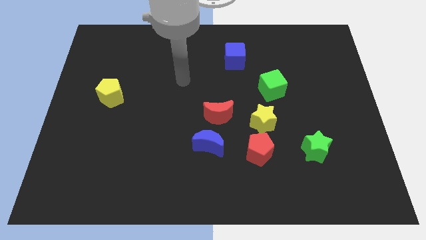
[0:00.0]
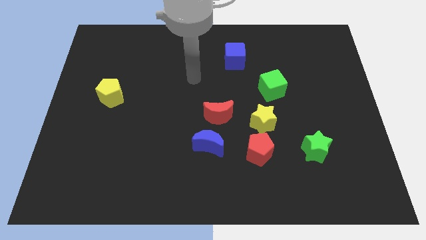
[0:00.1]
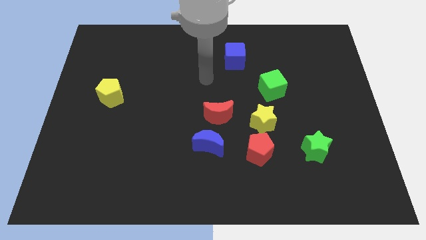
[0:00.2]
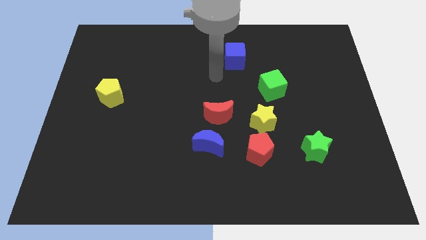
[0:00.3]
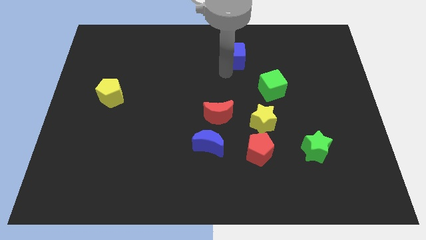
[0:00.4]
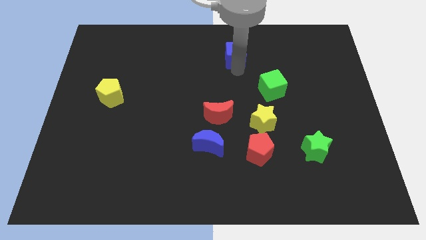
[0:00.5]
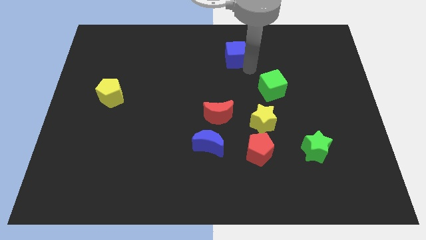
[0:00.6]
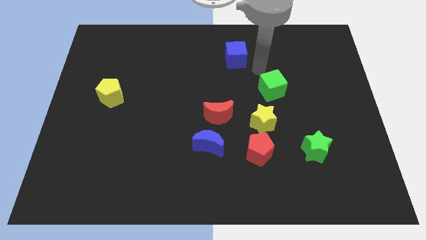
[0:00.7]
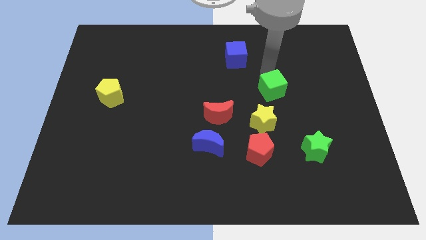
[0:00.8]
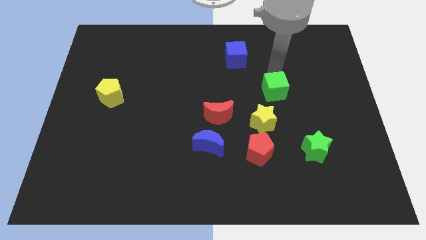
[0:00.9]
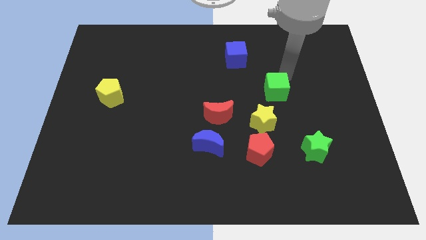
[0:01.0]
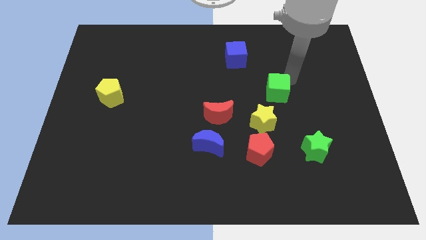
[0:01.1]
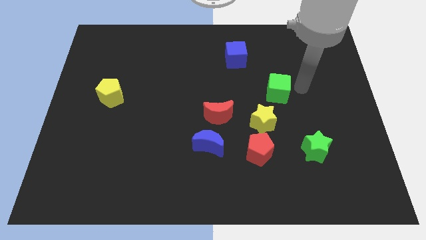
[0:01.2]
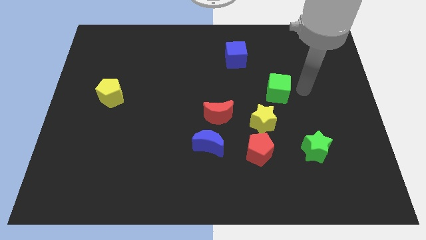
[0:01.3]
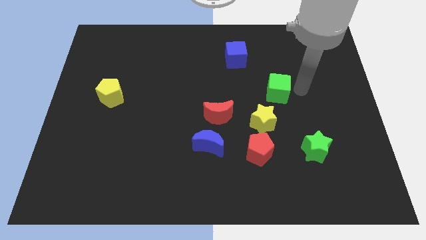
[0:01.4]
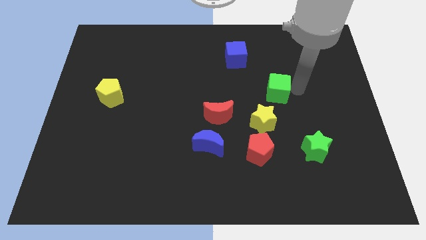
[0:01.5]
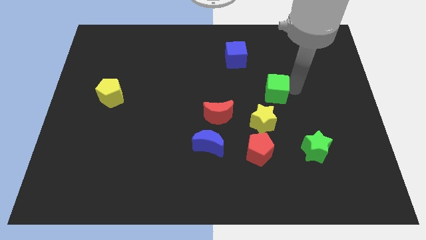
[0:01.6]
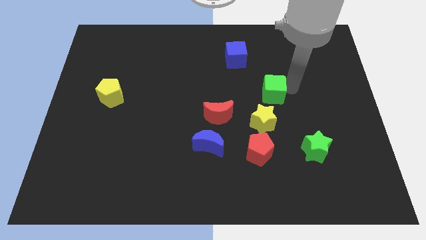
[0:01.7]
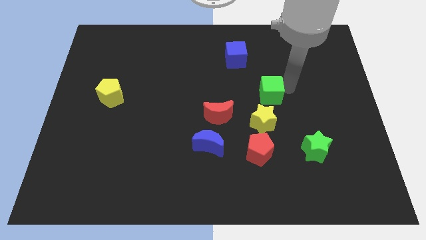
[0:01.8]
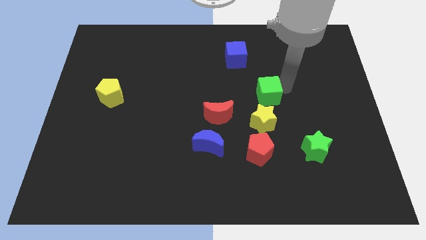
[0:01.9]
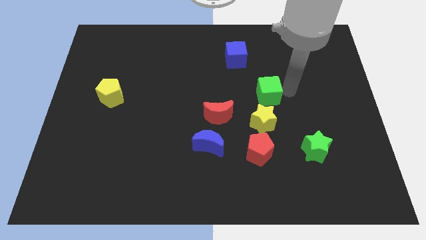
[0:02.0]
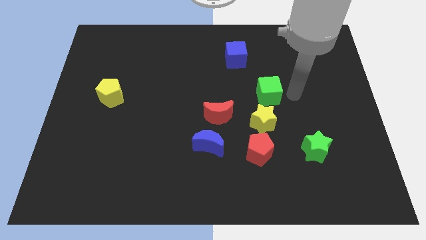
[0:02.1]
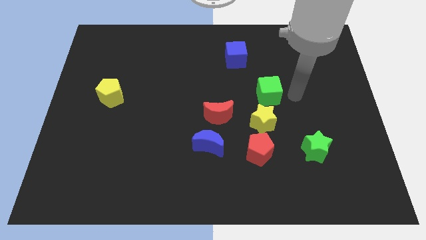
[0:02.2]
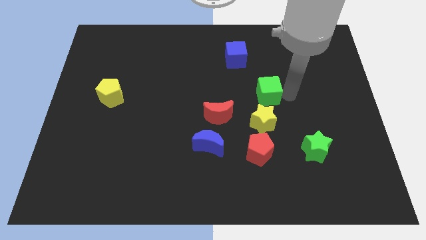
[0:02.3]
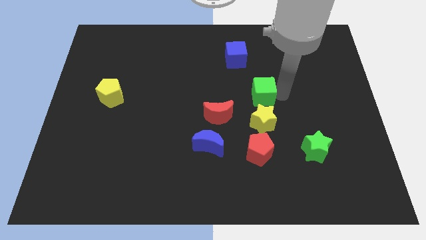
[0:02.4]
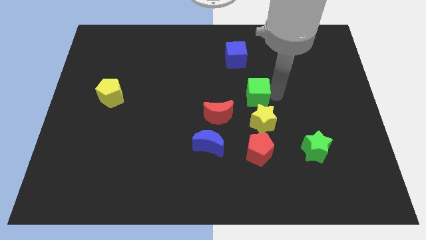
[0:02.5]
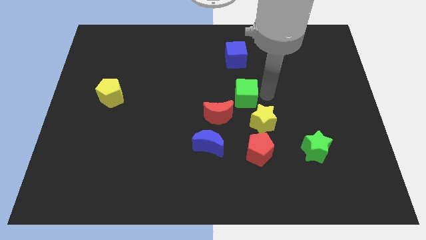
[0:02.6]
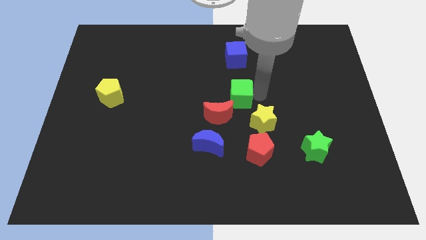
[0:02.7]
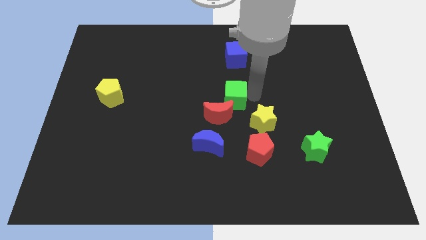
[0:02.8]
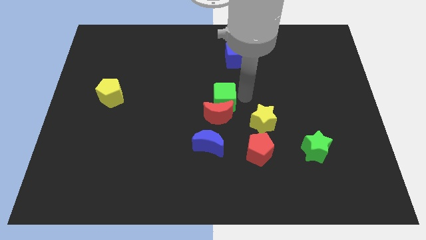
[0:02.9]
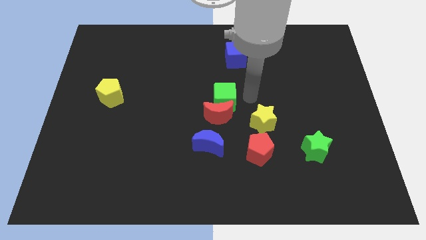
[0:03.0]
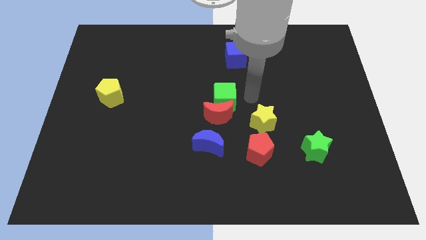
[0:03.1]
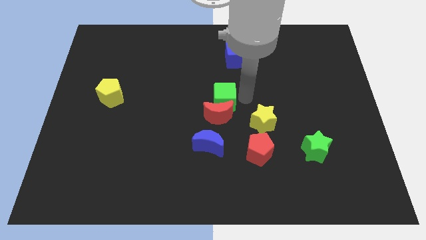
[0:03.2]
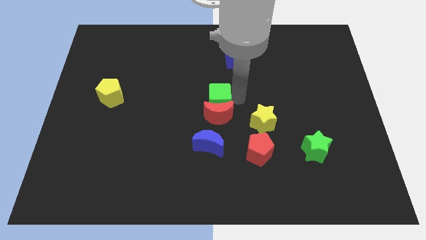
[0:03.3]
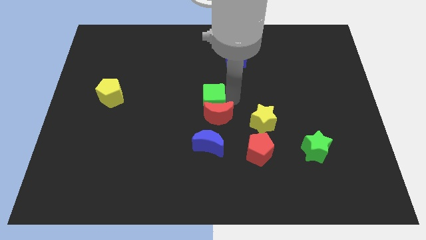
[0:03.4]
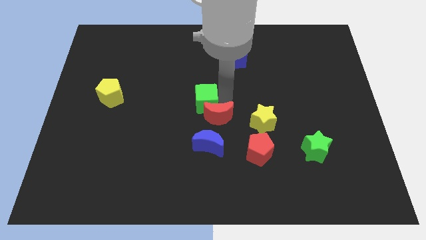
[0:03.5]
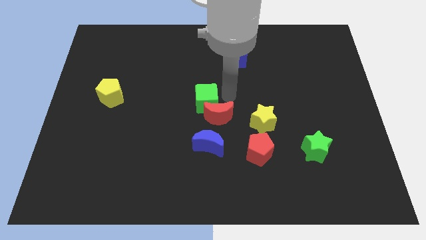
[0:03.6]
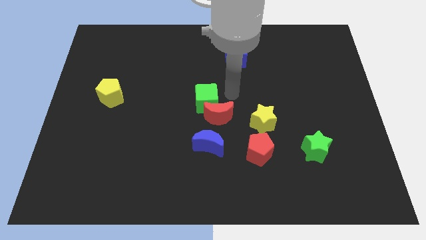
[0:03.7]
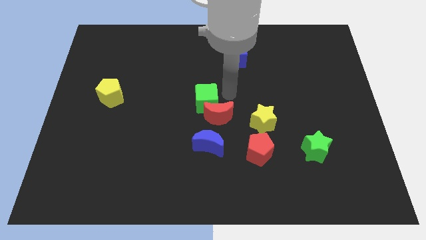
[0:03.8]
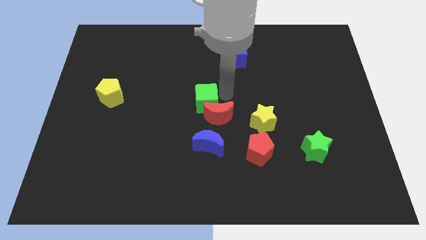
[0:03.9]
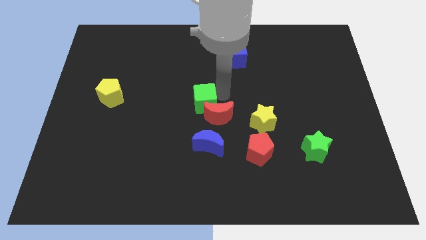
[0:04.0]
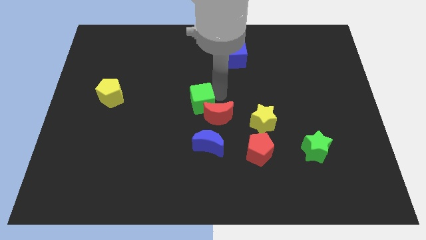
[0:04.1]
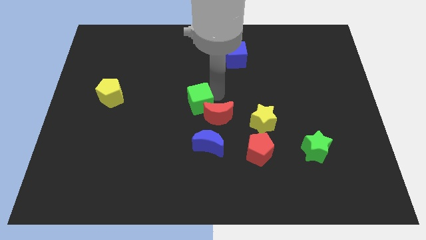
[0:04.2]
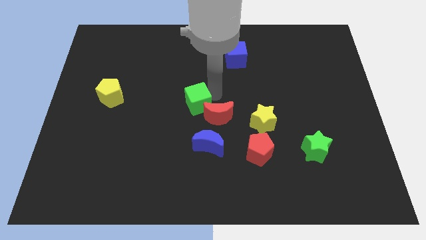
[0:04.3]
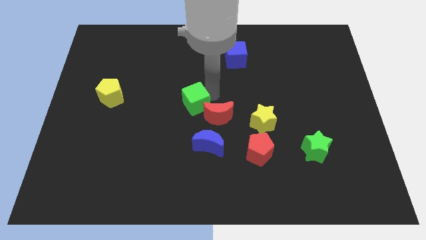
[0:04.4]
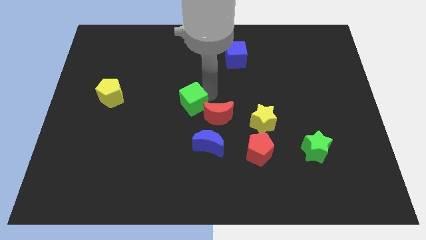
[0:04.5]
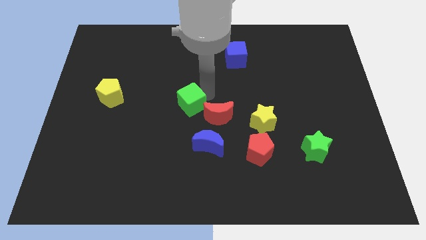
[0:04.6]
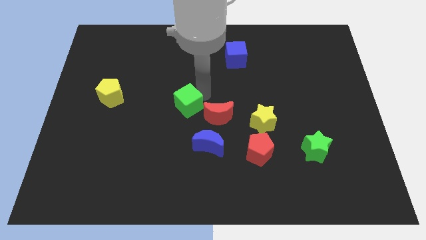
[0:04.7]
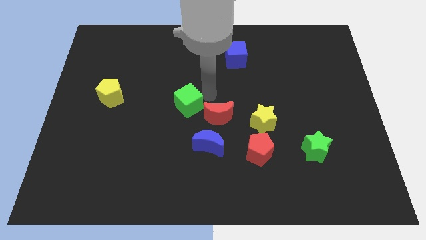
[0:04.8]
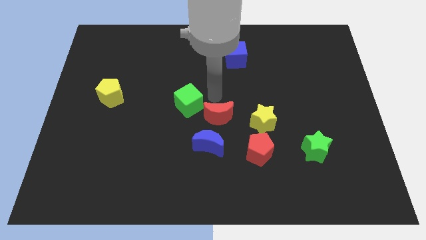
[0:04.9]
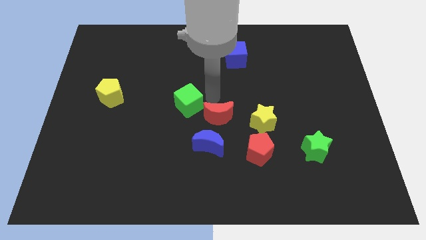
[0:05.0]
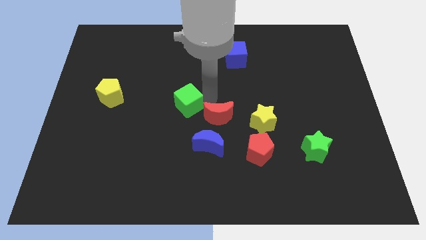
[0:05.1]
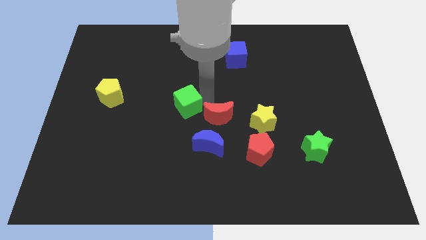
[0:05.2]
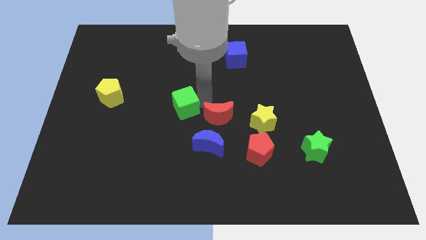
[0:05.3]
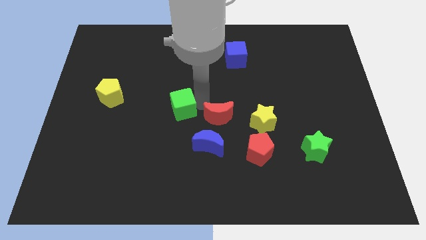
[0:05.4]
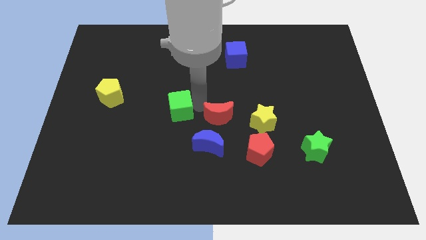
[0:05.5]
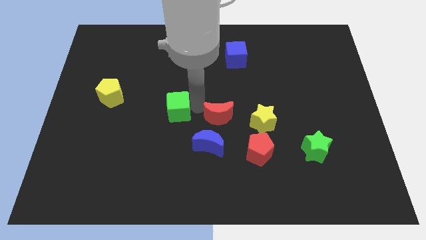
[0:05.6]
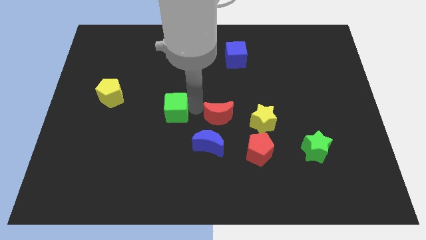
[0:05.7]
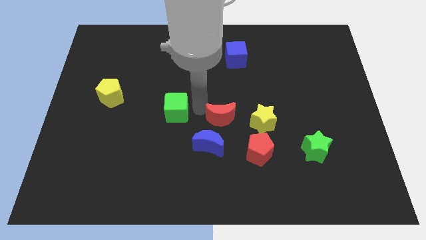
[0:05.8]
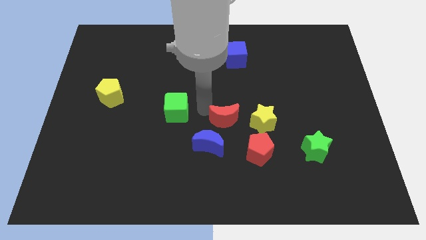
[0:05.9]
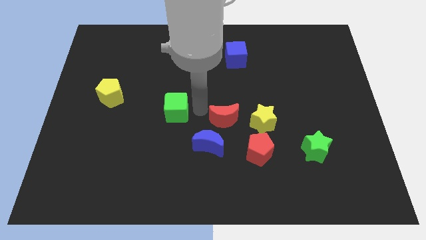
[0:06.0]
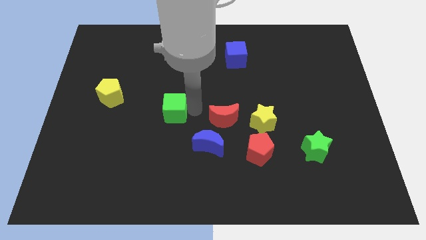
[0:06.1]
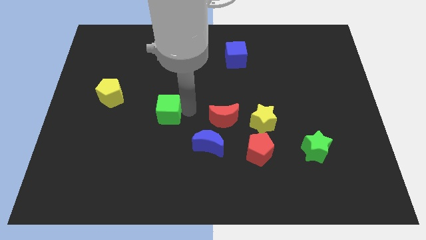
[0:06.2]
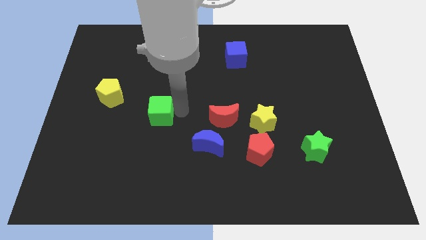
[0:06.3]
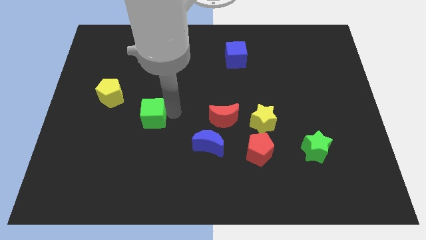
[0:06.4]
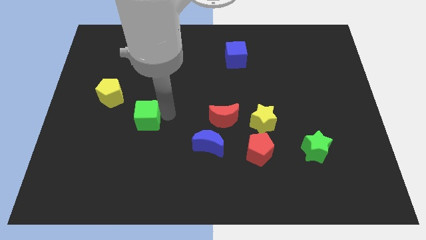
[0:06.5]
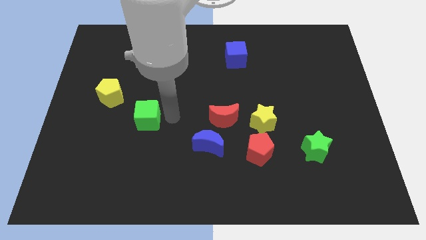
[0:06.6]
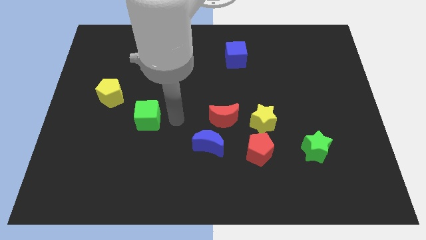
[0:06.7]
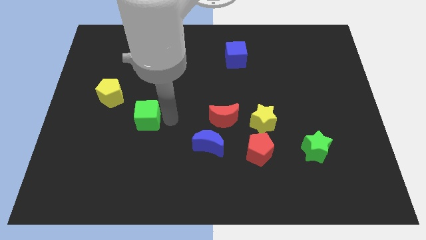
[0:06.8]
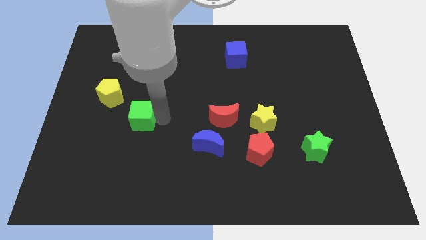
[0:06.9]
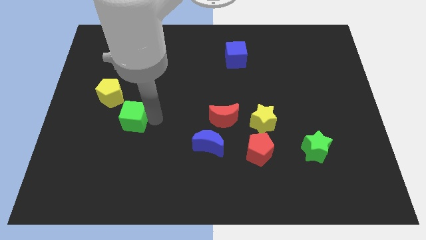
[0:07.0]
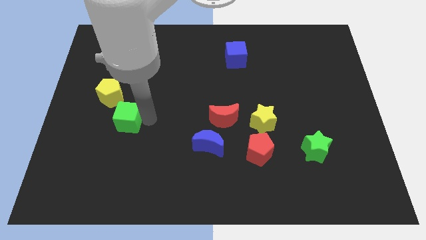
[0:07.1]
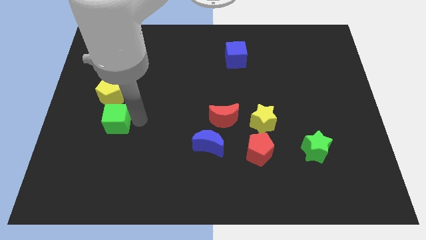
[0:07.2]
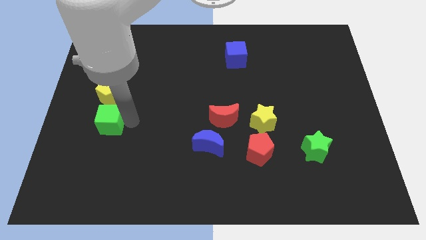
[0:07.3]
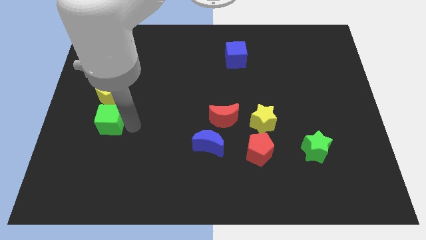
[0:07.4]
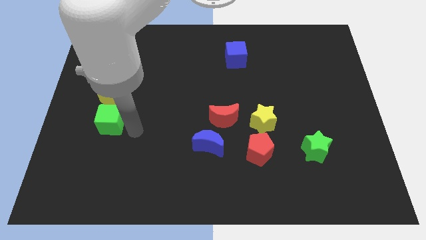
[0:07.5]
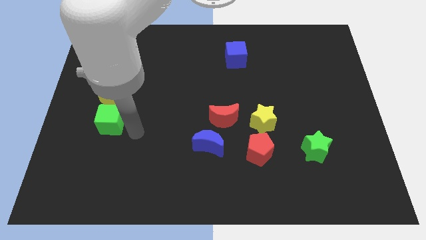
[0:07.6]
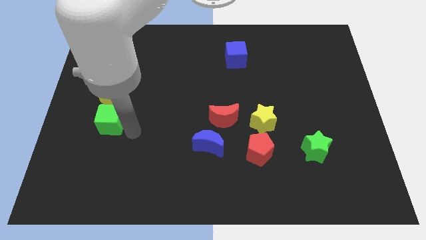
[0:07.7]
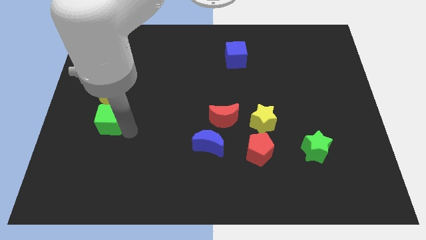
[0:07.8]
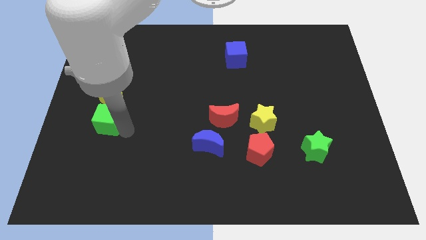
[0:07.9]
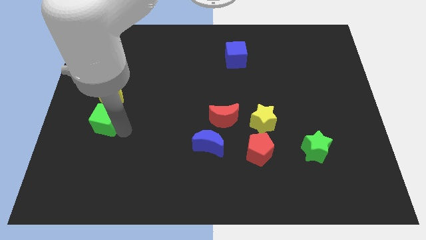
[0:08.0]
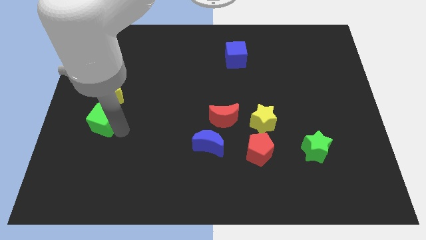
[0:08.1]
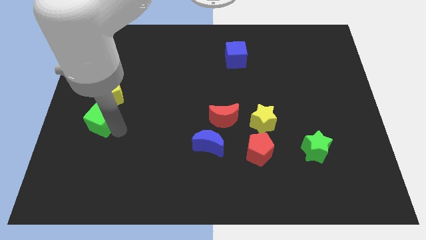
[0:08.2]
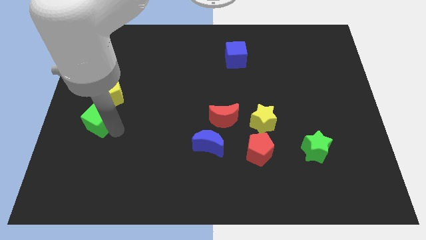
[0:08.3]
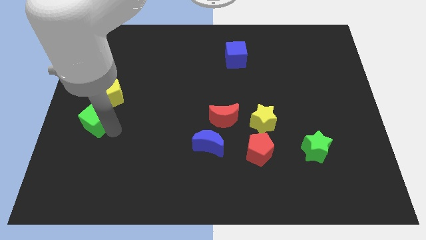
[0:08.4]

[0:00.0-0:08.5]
move the green cube to the center left
